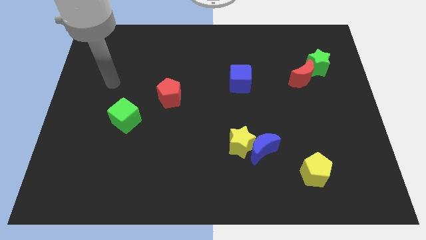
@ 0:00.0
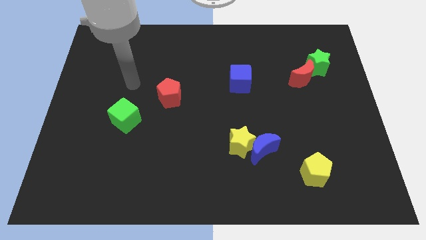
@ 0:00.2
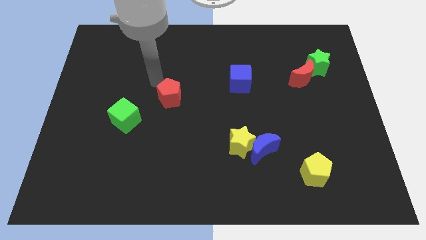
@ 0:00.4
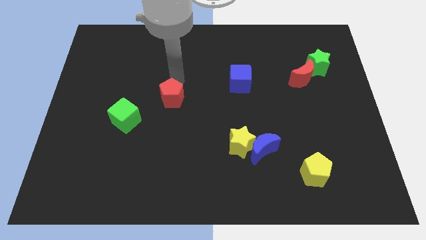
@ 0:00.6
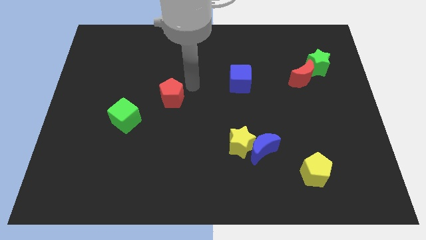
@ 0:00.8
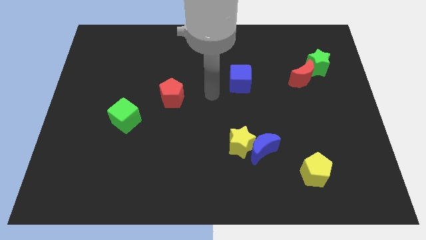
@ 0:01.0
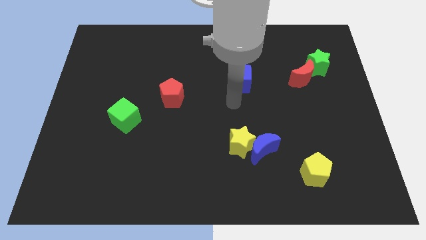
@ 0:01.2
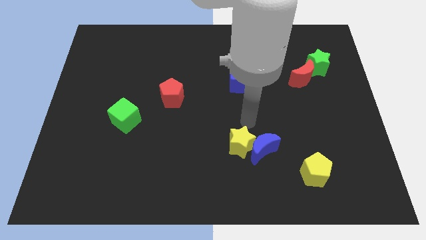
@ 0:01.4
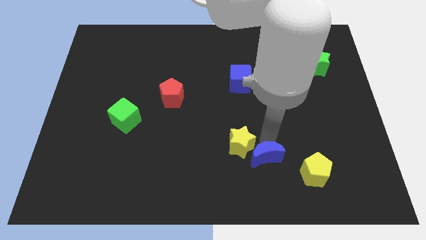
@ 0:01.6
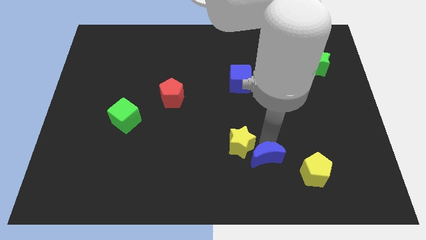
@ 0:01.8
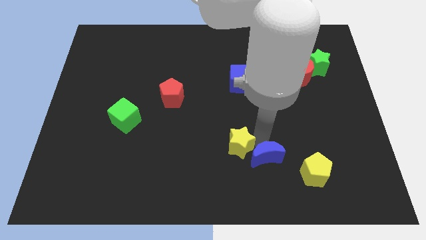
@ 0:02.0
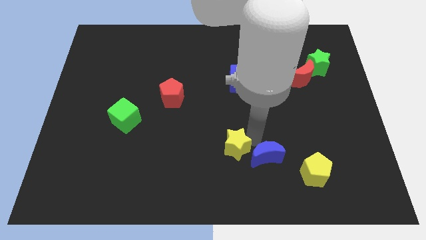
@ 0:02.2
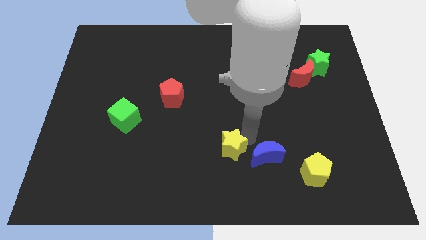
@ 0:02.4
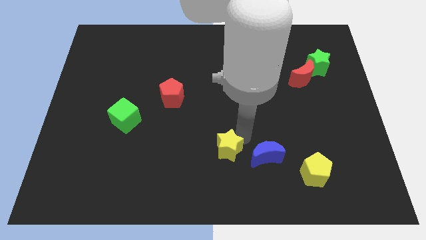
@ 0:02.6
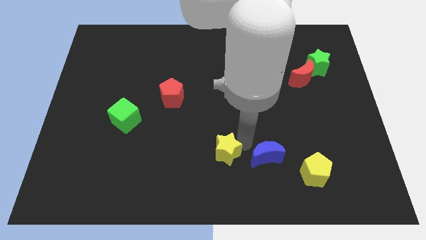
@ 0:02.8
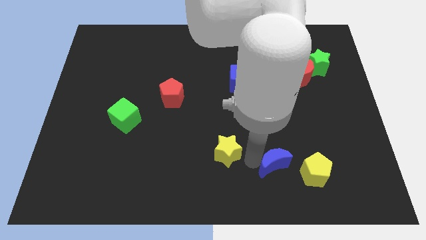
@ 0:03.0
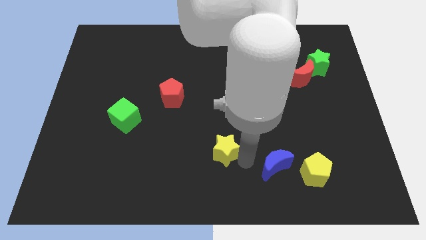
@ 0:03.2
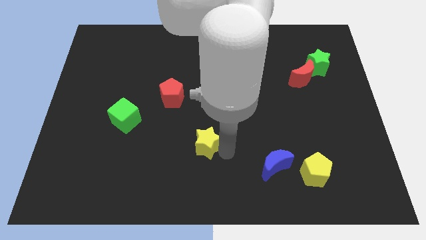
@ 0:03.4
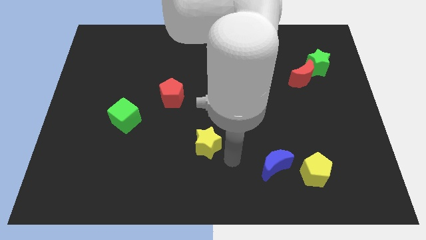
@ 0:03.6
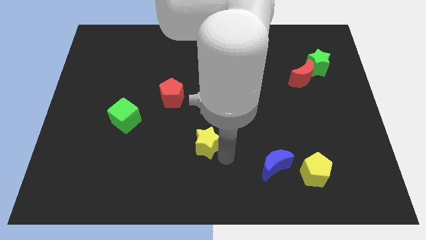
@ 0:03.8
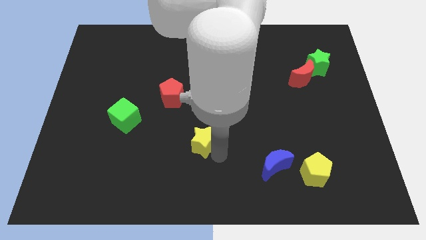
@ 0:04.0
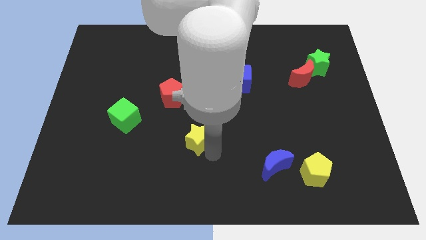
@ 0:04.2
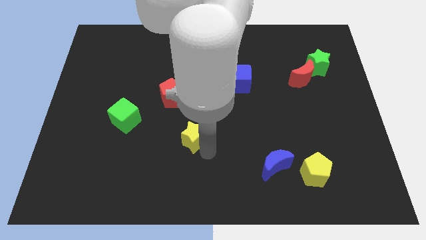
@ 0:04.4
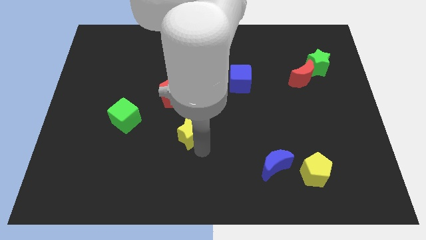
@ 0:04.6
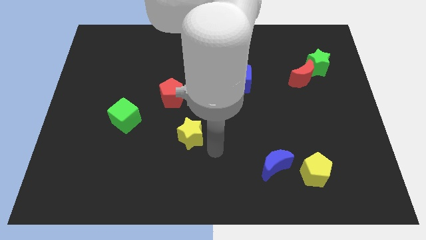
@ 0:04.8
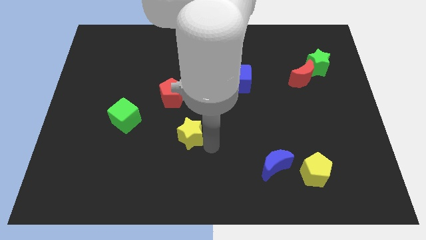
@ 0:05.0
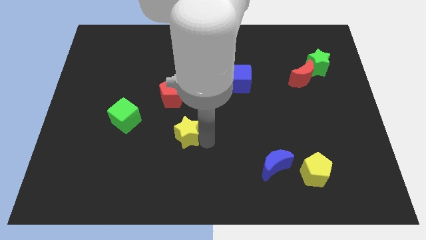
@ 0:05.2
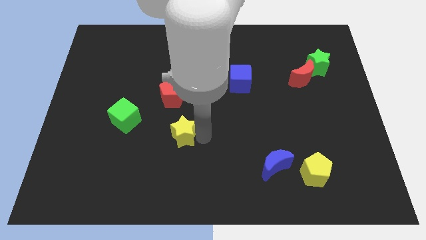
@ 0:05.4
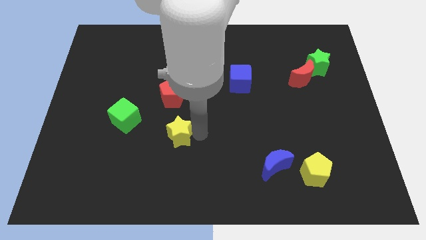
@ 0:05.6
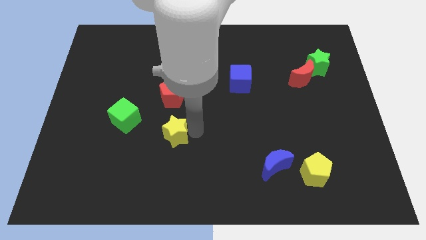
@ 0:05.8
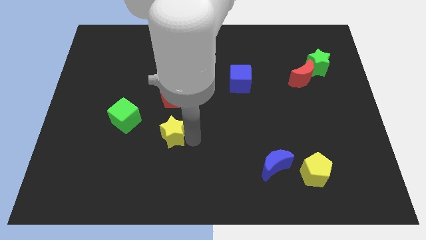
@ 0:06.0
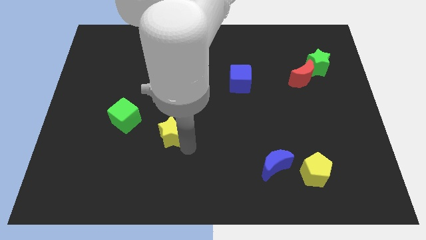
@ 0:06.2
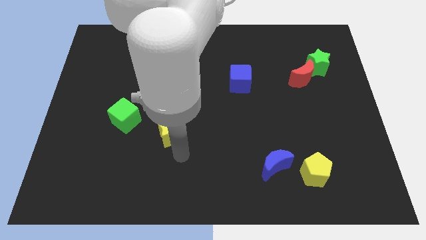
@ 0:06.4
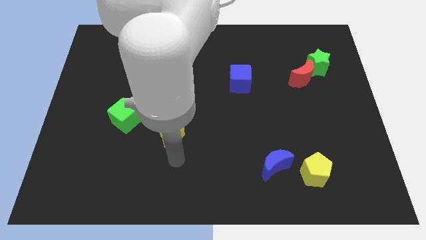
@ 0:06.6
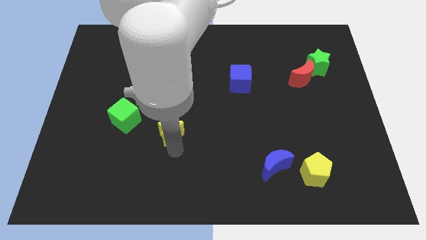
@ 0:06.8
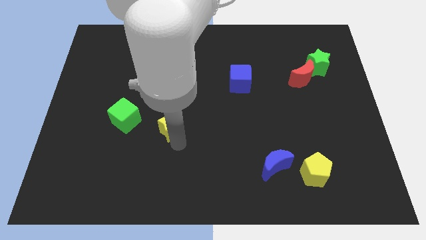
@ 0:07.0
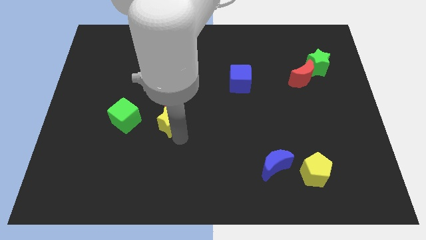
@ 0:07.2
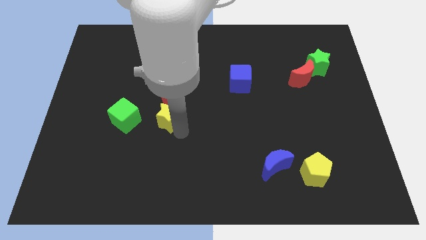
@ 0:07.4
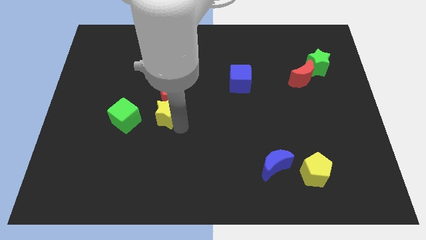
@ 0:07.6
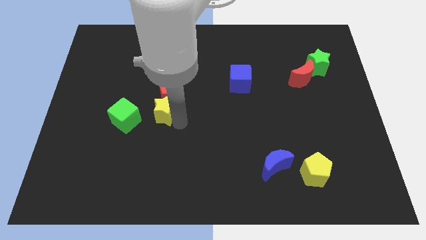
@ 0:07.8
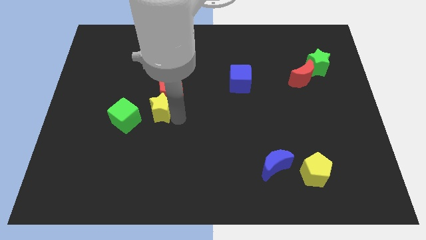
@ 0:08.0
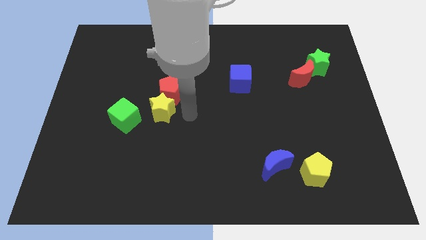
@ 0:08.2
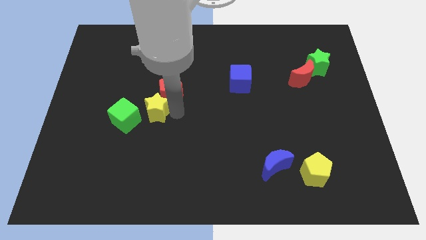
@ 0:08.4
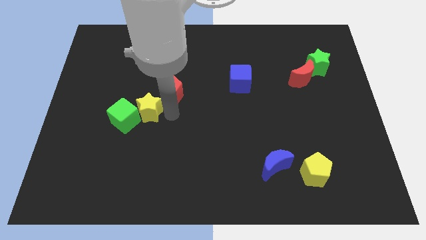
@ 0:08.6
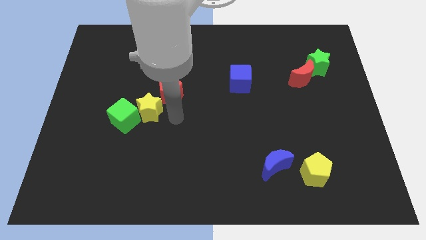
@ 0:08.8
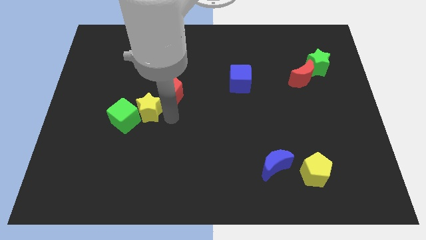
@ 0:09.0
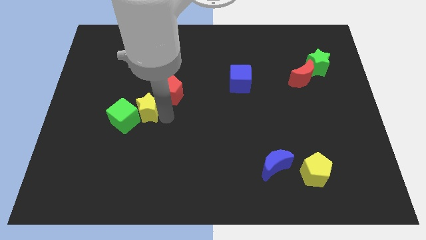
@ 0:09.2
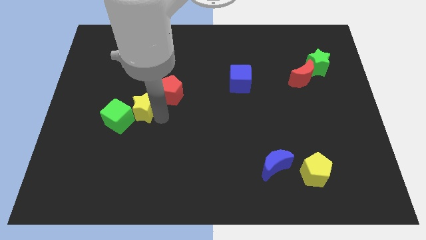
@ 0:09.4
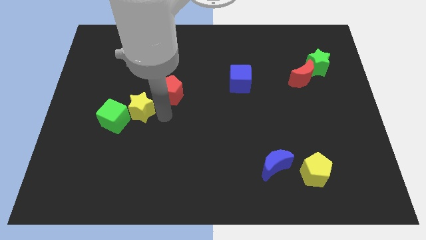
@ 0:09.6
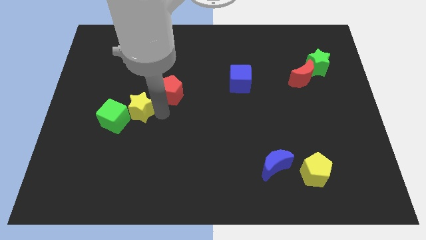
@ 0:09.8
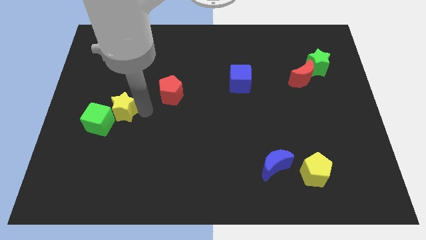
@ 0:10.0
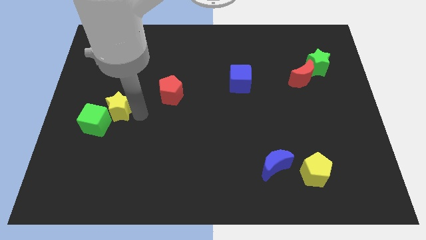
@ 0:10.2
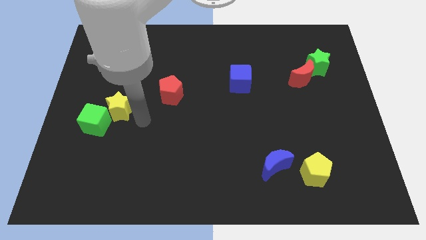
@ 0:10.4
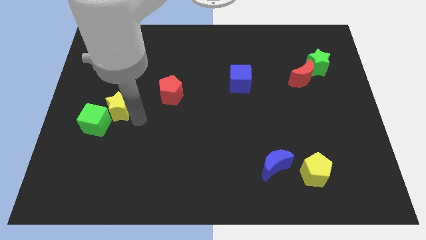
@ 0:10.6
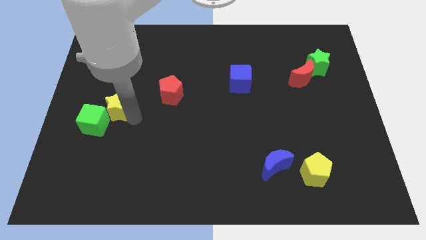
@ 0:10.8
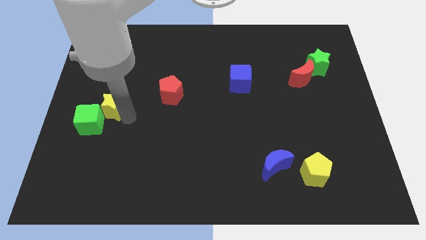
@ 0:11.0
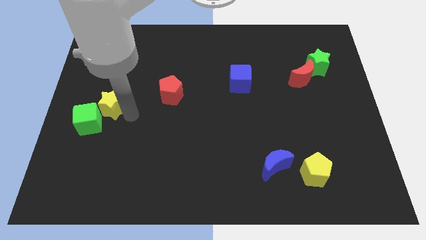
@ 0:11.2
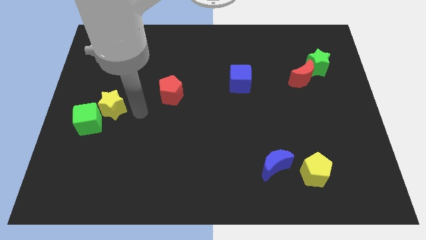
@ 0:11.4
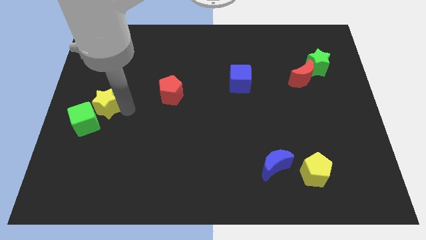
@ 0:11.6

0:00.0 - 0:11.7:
push the yellow star to the center left
